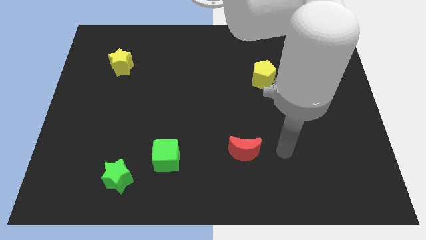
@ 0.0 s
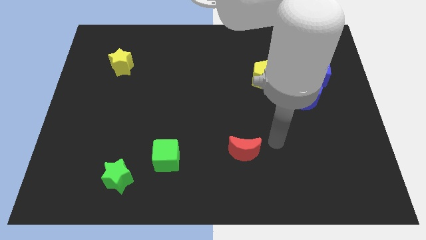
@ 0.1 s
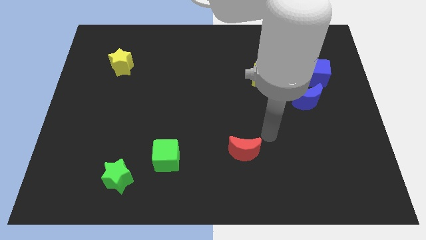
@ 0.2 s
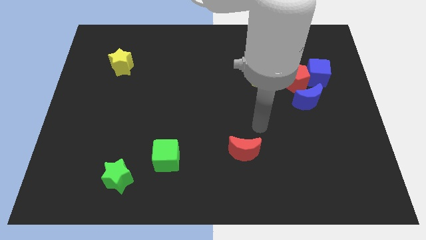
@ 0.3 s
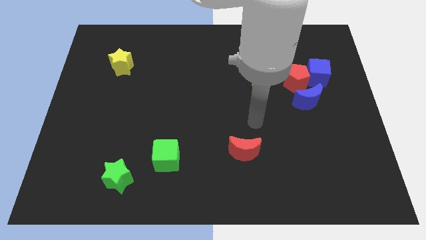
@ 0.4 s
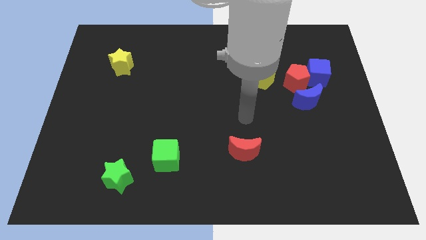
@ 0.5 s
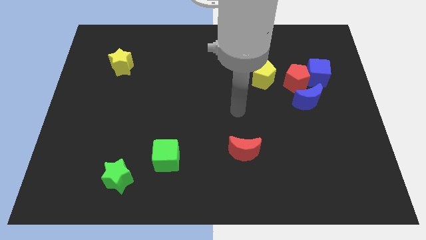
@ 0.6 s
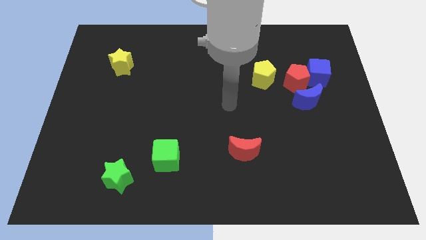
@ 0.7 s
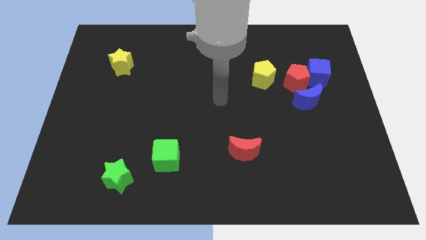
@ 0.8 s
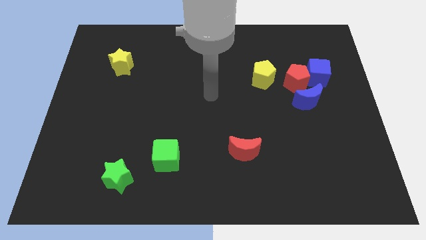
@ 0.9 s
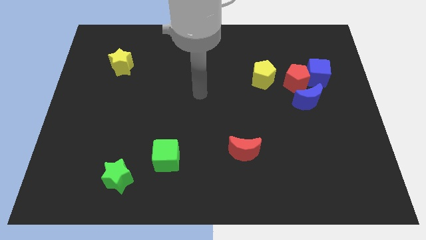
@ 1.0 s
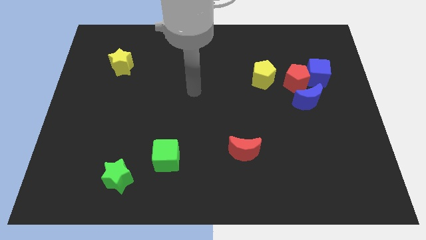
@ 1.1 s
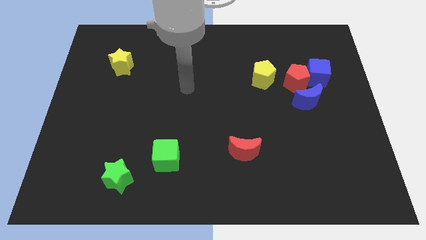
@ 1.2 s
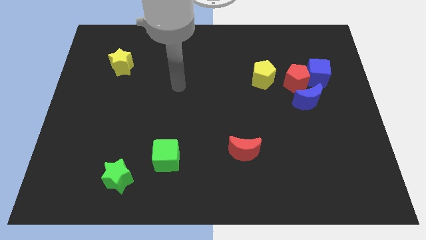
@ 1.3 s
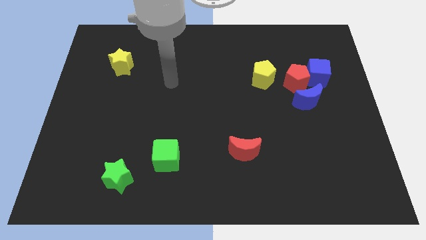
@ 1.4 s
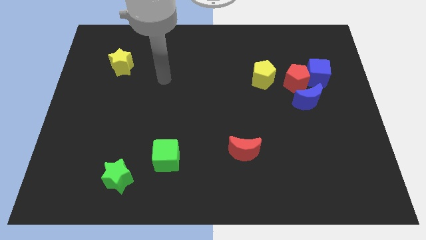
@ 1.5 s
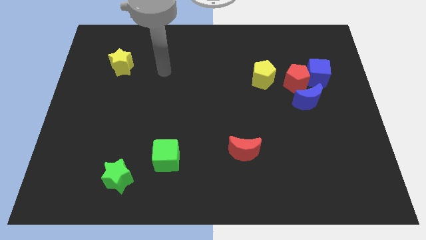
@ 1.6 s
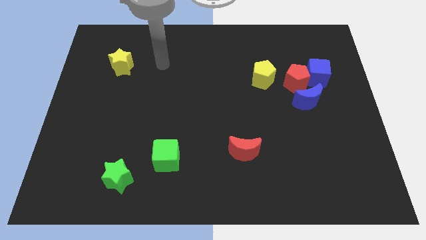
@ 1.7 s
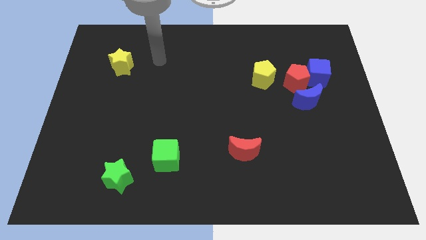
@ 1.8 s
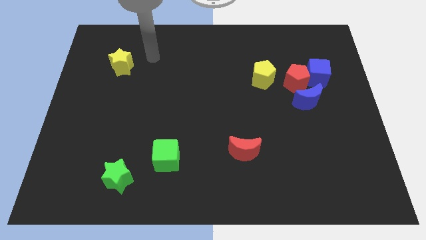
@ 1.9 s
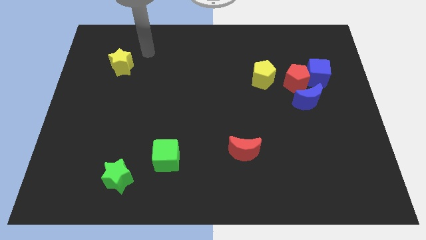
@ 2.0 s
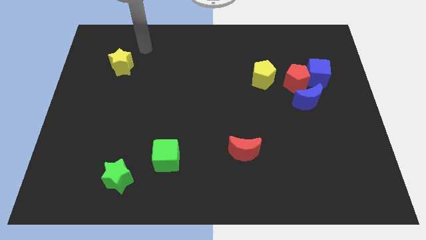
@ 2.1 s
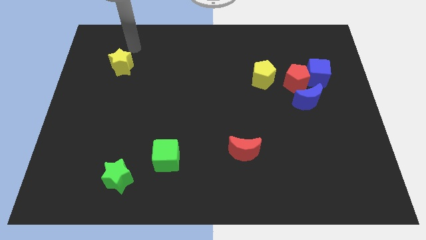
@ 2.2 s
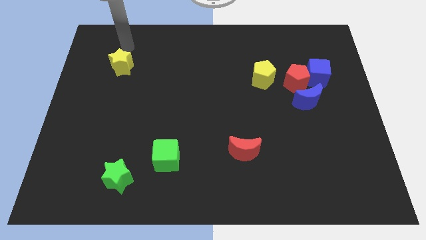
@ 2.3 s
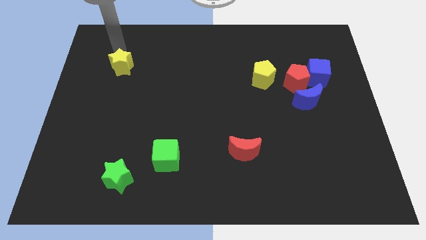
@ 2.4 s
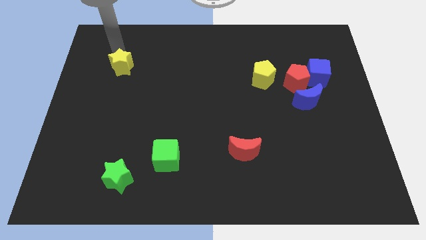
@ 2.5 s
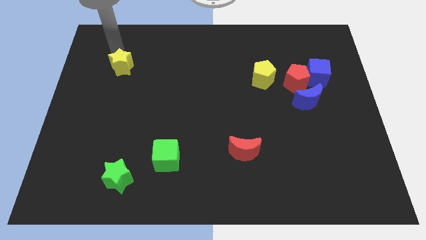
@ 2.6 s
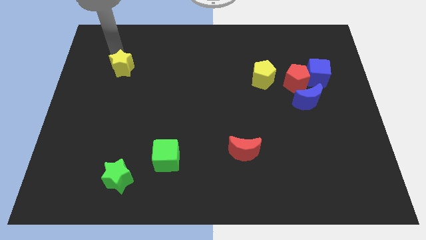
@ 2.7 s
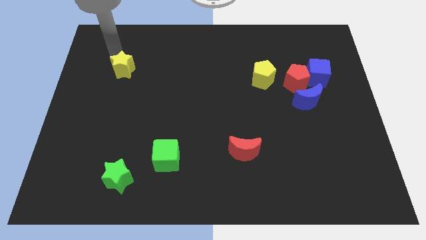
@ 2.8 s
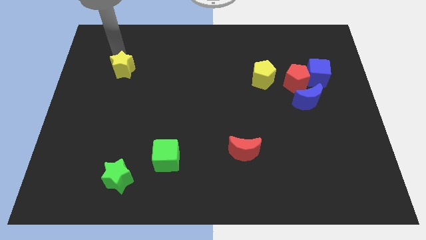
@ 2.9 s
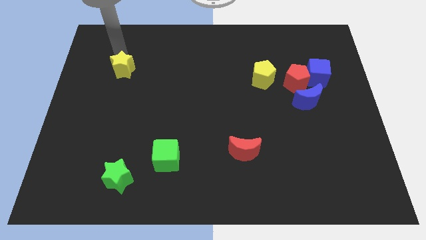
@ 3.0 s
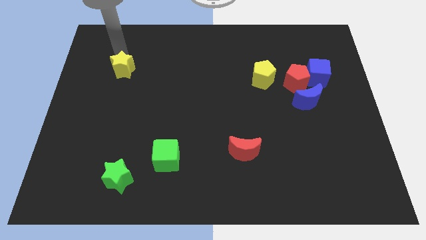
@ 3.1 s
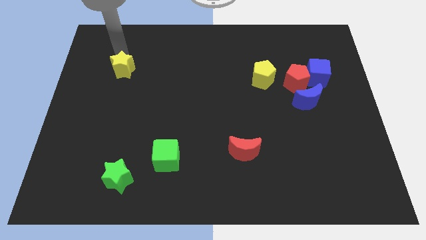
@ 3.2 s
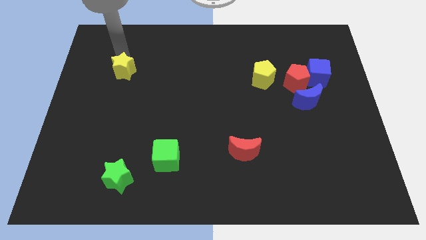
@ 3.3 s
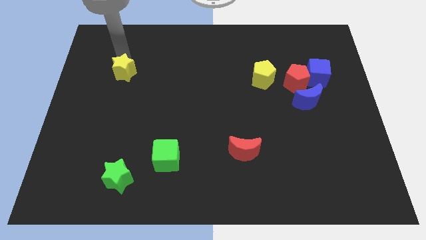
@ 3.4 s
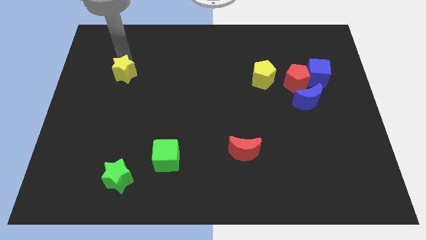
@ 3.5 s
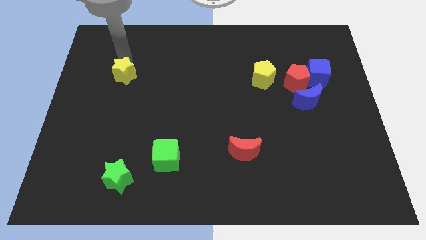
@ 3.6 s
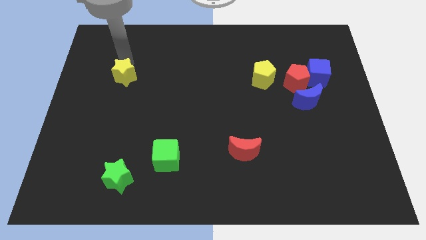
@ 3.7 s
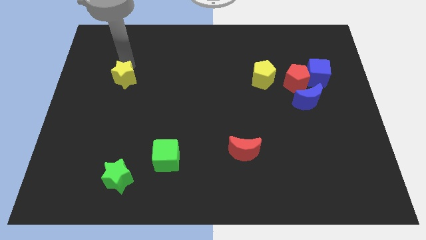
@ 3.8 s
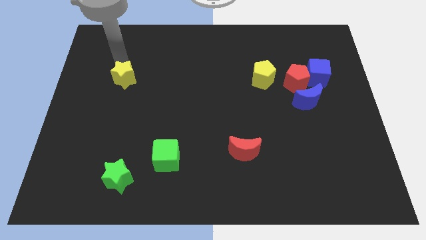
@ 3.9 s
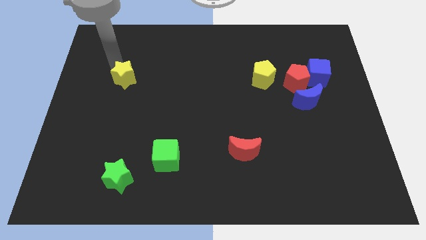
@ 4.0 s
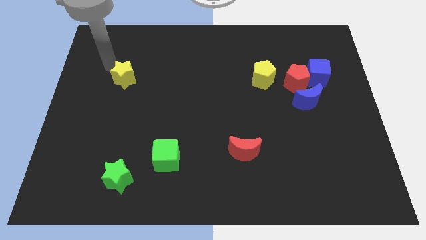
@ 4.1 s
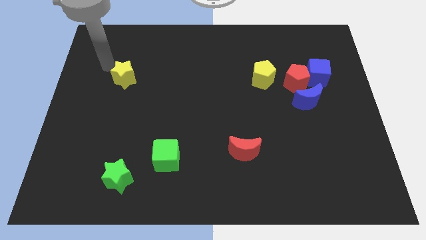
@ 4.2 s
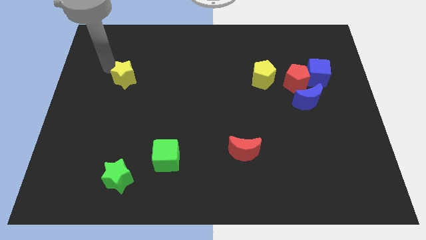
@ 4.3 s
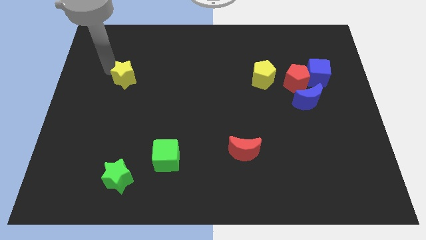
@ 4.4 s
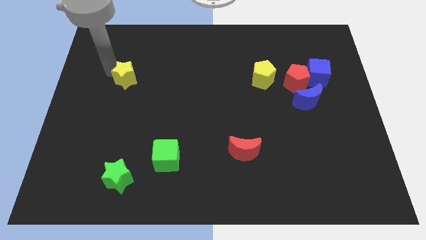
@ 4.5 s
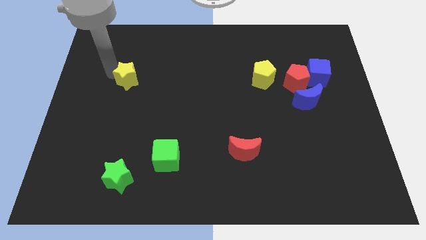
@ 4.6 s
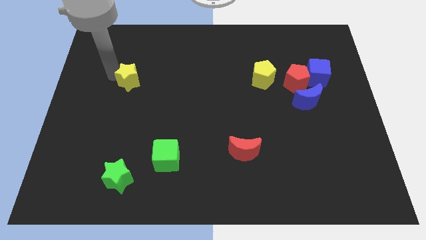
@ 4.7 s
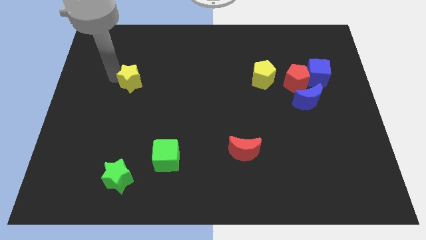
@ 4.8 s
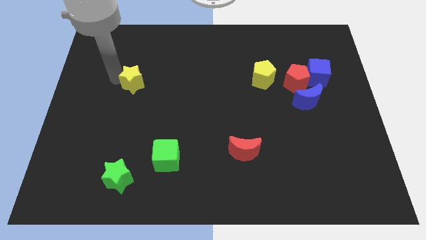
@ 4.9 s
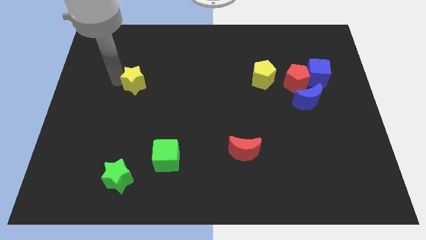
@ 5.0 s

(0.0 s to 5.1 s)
slide the yellow star downwards and then right a bit

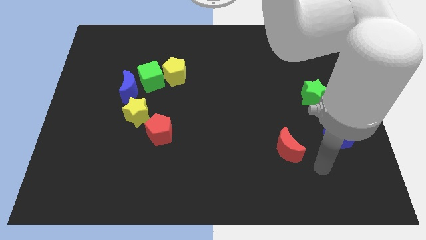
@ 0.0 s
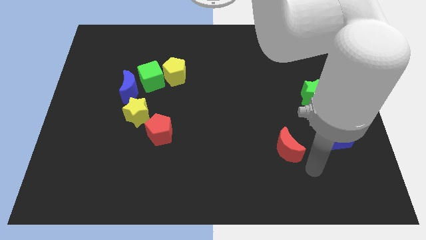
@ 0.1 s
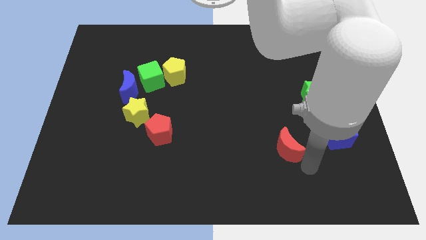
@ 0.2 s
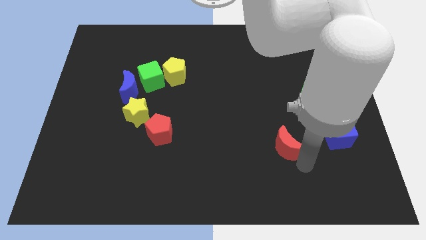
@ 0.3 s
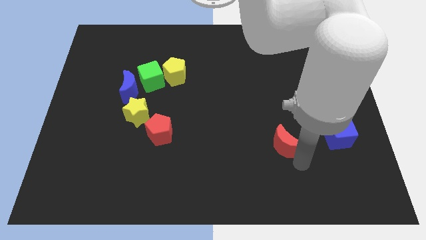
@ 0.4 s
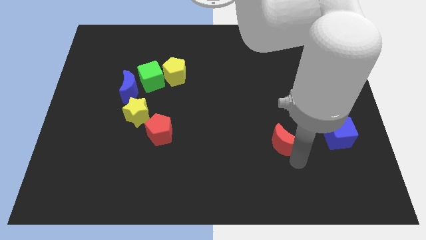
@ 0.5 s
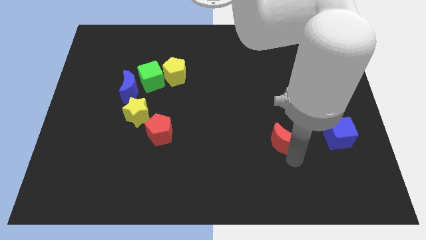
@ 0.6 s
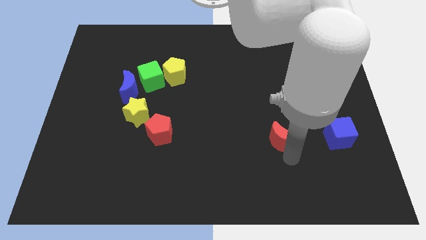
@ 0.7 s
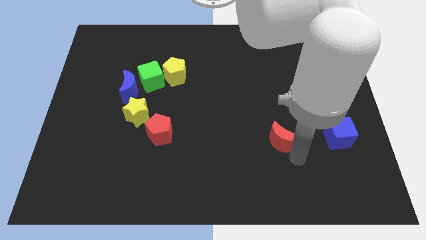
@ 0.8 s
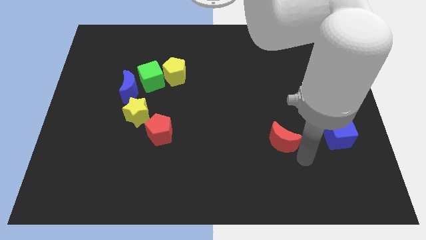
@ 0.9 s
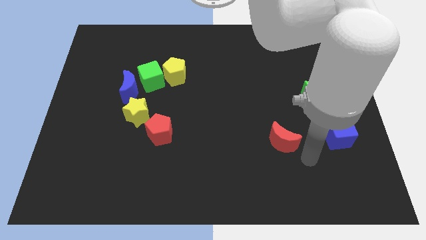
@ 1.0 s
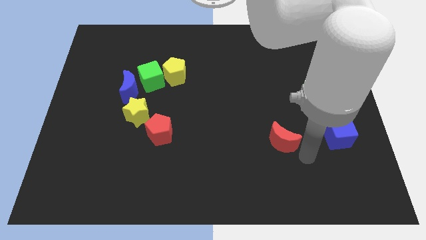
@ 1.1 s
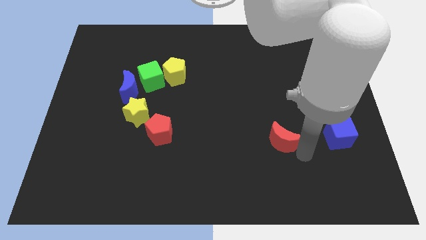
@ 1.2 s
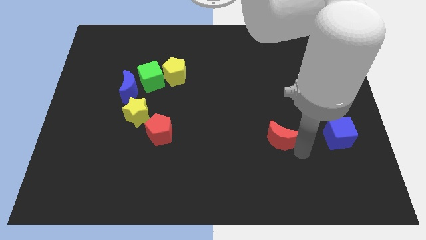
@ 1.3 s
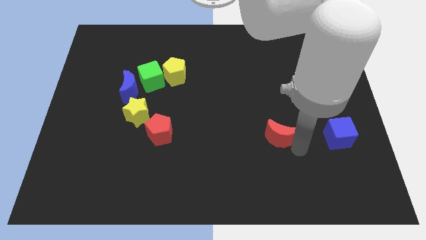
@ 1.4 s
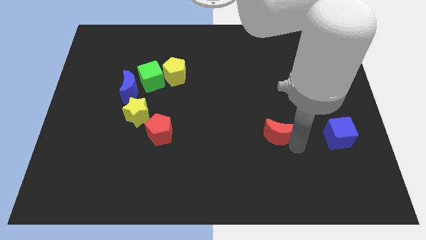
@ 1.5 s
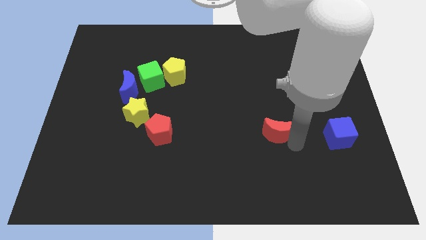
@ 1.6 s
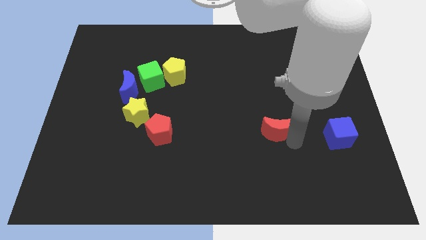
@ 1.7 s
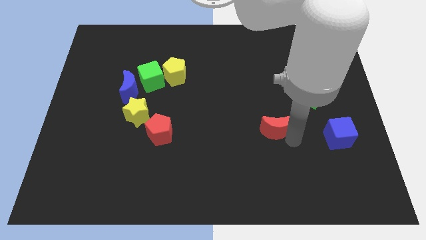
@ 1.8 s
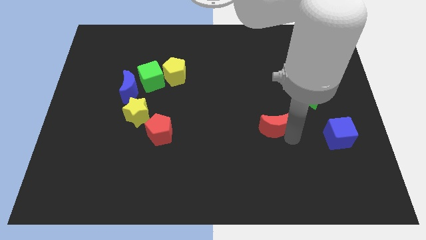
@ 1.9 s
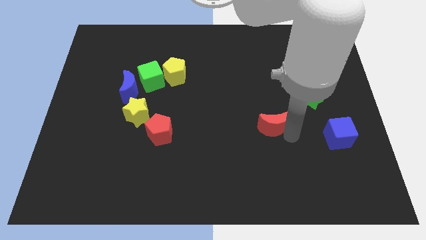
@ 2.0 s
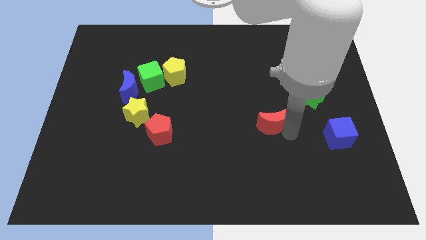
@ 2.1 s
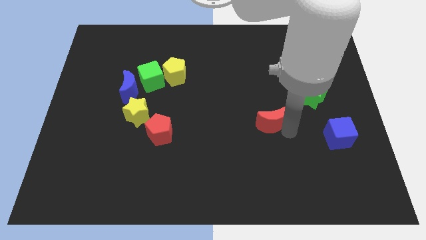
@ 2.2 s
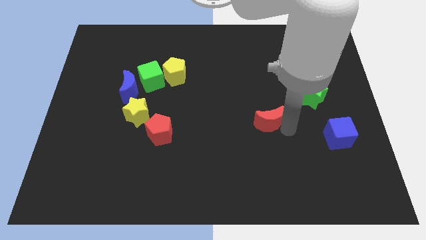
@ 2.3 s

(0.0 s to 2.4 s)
push the red moon a little bit diagonally up and left

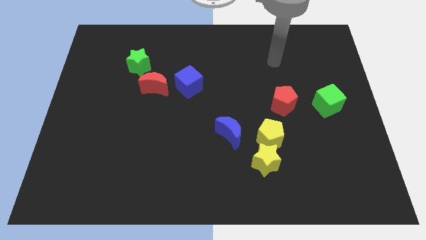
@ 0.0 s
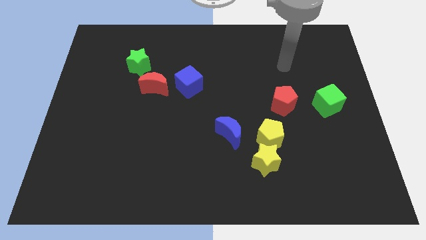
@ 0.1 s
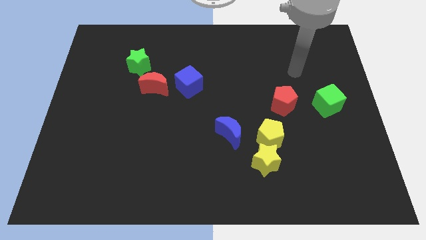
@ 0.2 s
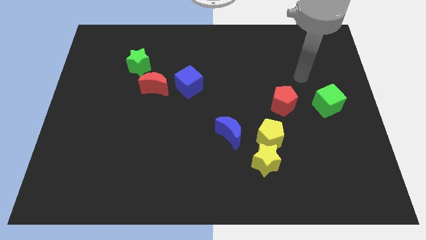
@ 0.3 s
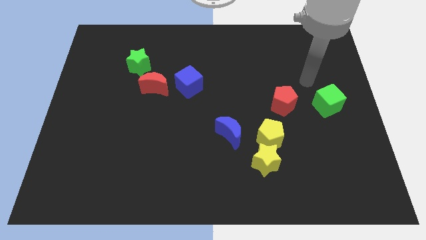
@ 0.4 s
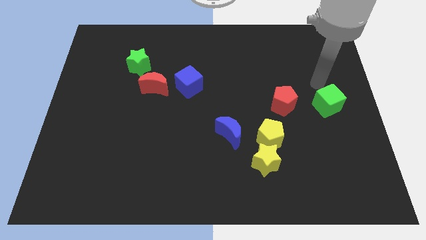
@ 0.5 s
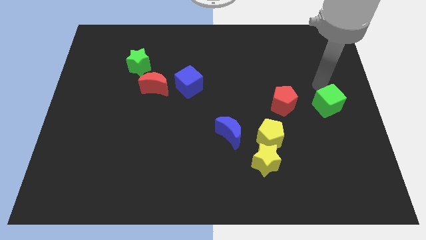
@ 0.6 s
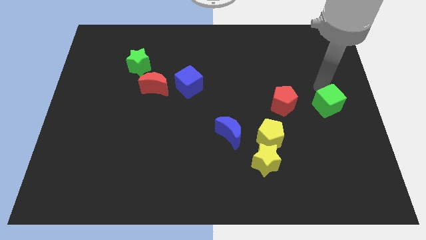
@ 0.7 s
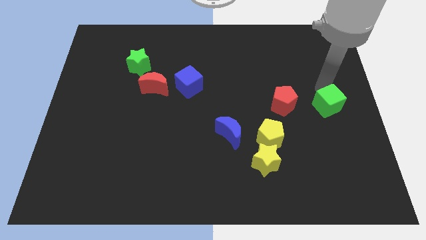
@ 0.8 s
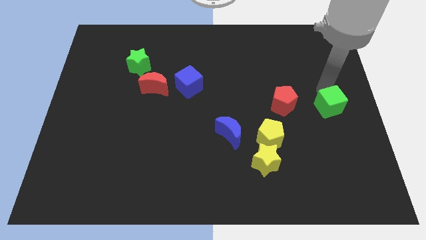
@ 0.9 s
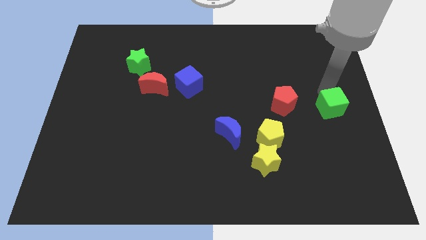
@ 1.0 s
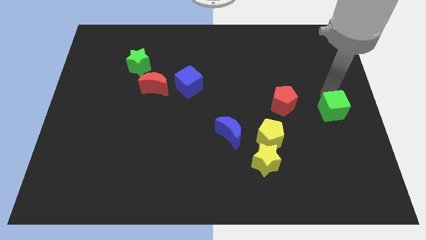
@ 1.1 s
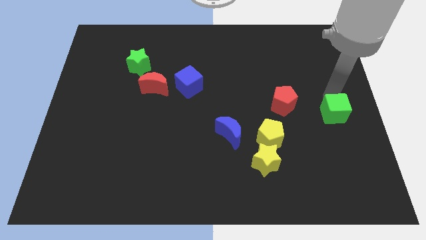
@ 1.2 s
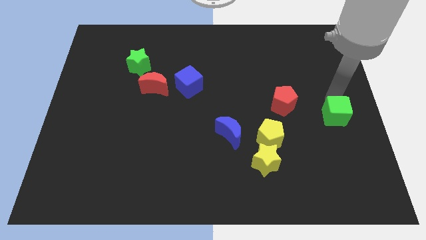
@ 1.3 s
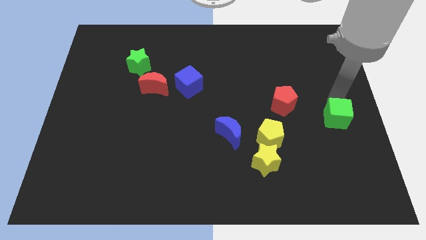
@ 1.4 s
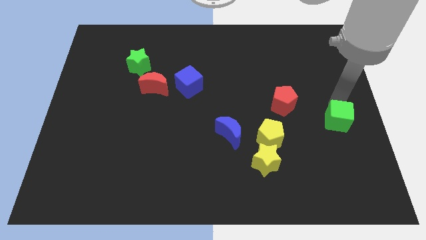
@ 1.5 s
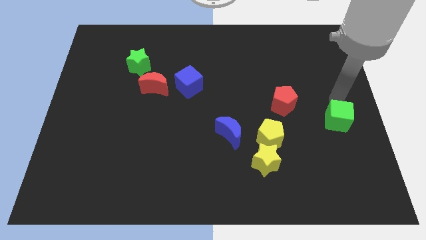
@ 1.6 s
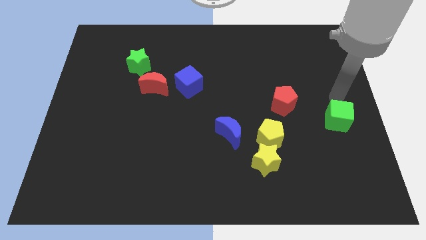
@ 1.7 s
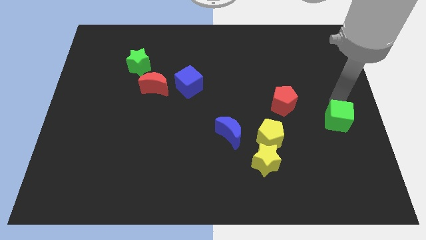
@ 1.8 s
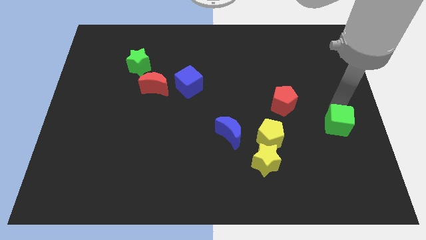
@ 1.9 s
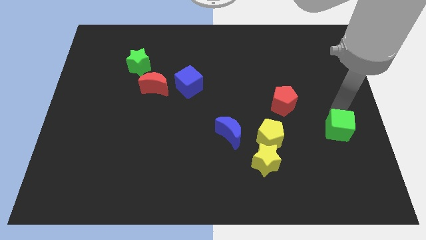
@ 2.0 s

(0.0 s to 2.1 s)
slightly slide the green cube downwards
